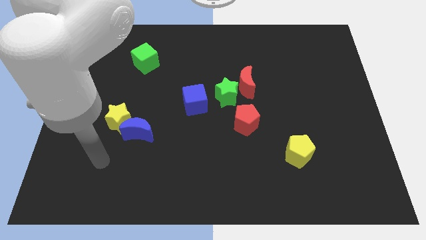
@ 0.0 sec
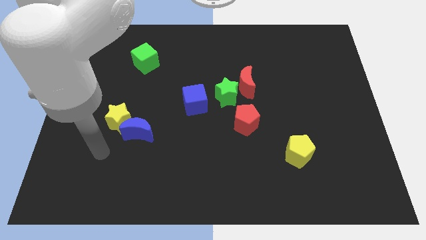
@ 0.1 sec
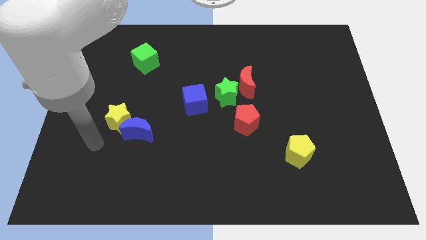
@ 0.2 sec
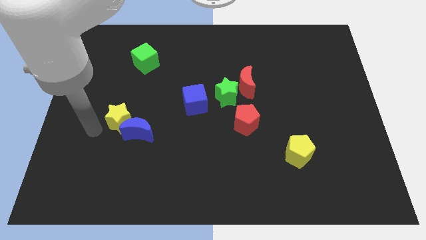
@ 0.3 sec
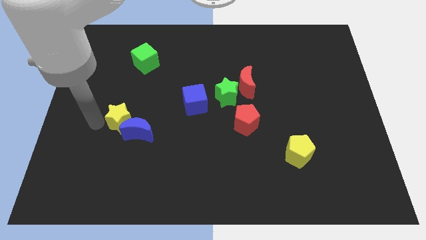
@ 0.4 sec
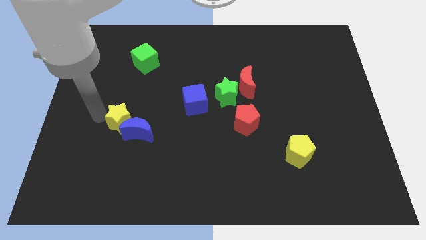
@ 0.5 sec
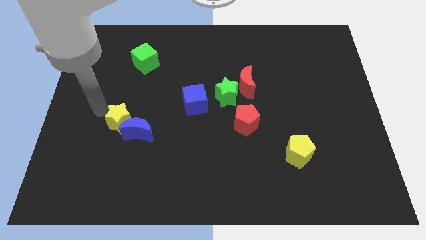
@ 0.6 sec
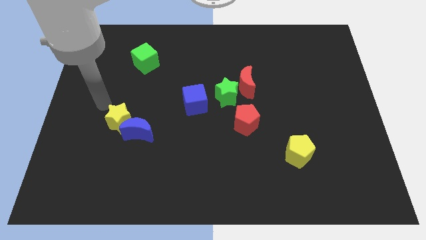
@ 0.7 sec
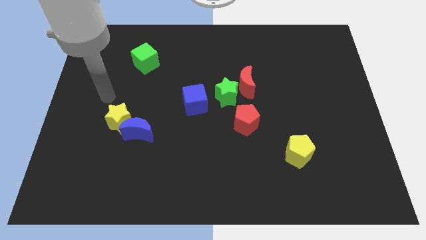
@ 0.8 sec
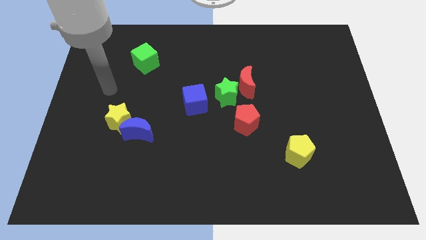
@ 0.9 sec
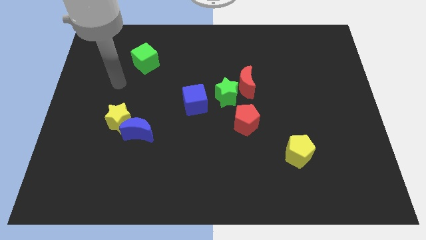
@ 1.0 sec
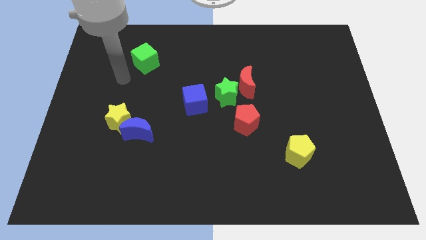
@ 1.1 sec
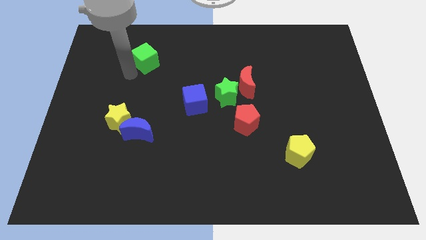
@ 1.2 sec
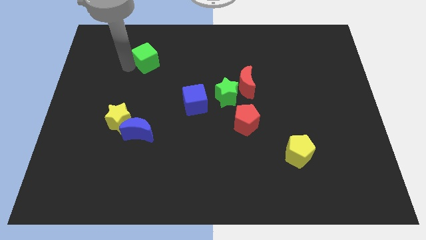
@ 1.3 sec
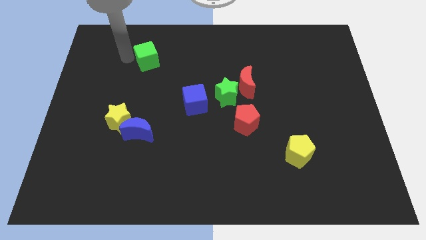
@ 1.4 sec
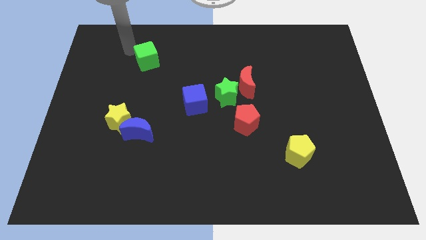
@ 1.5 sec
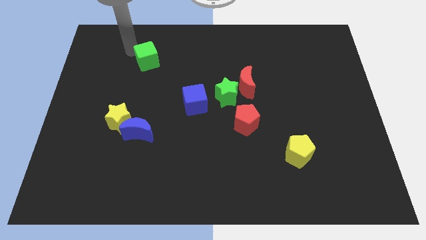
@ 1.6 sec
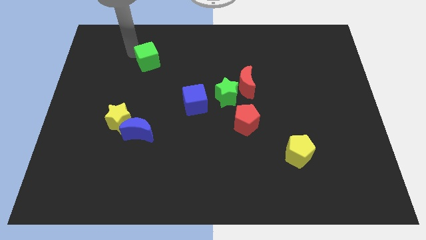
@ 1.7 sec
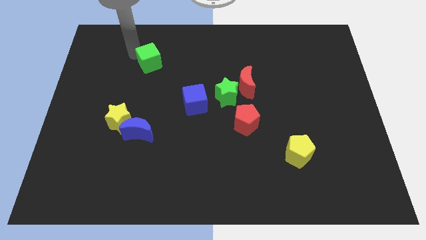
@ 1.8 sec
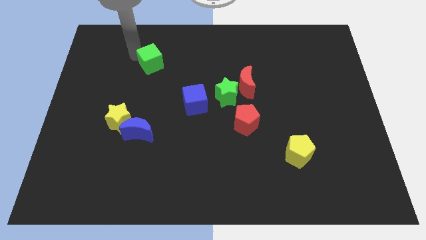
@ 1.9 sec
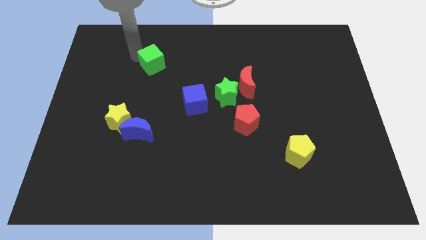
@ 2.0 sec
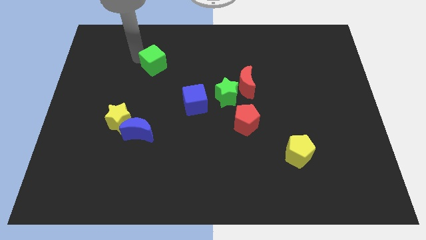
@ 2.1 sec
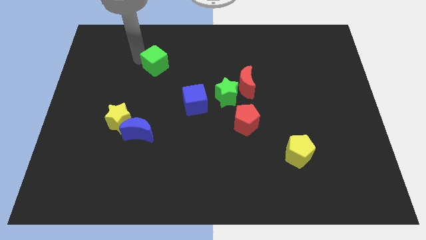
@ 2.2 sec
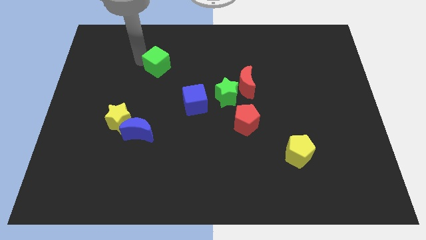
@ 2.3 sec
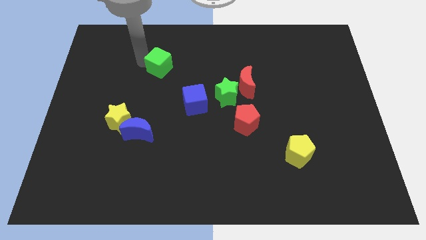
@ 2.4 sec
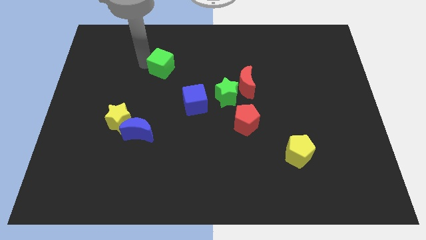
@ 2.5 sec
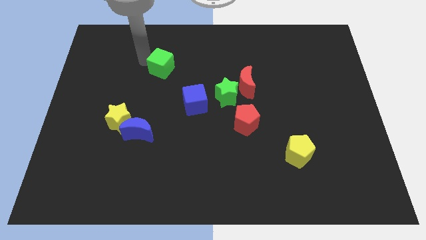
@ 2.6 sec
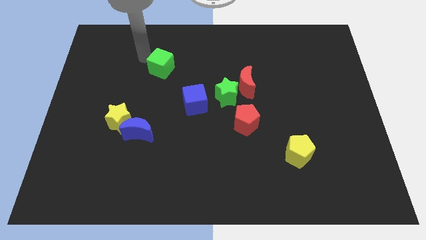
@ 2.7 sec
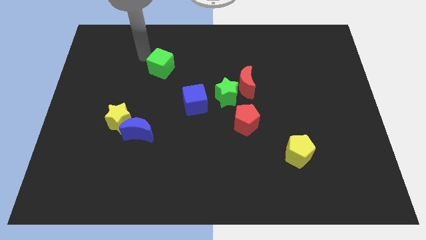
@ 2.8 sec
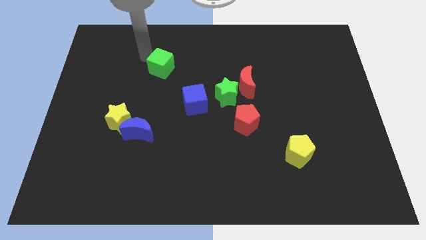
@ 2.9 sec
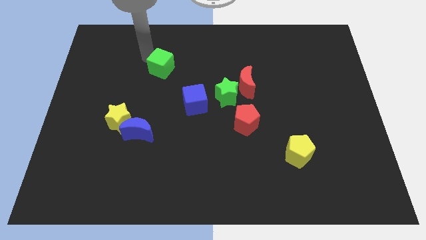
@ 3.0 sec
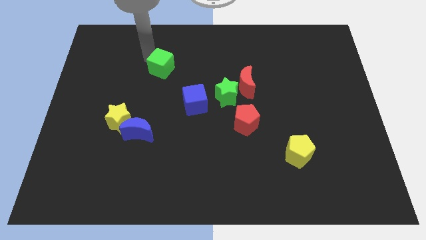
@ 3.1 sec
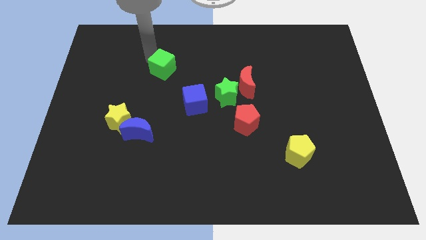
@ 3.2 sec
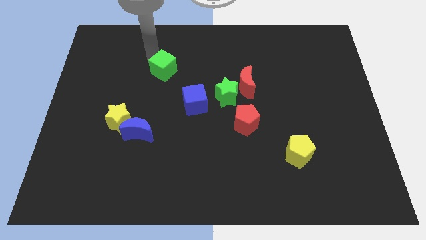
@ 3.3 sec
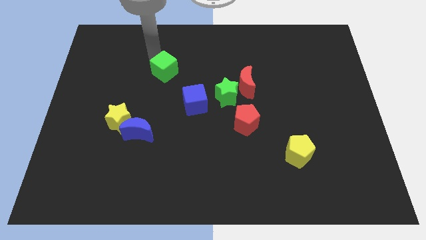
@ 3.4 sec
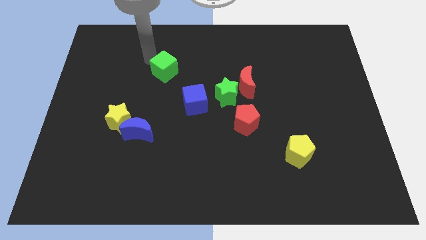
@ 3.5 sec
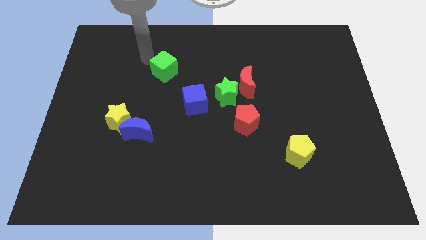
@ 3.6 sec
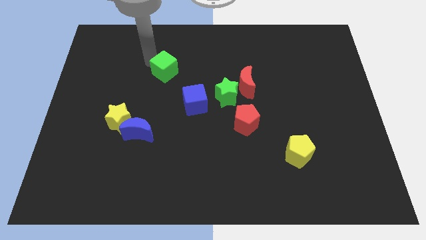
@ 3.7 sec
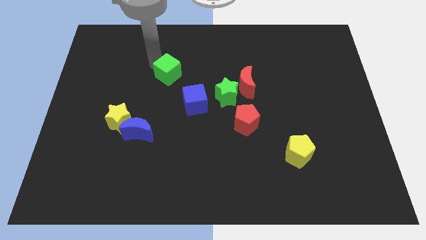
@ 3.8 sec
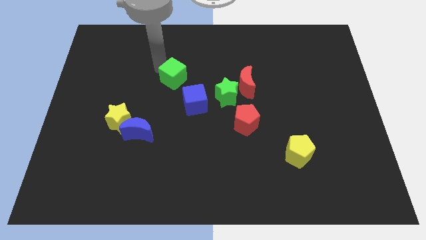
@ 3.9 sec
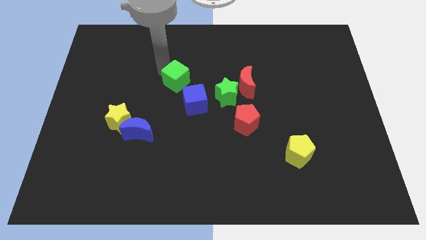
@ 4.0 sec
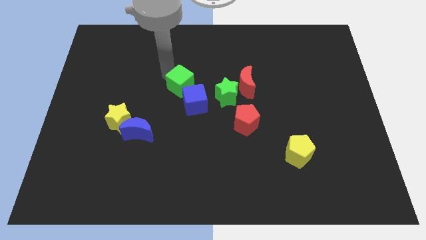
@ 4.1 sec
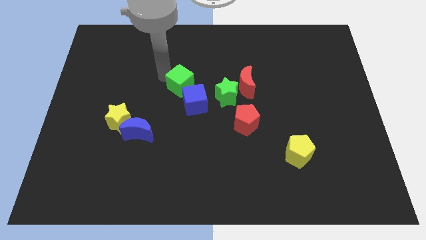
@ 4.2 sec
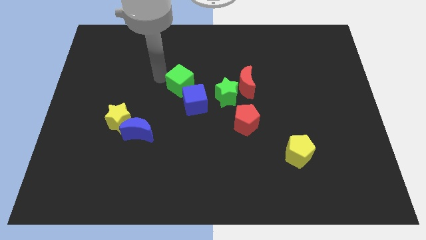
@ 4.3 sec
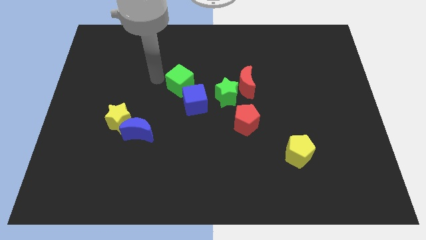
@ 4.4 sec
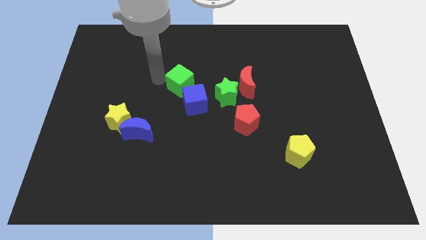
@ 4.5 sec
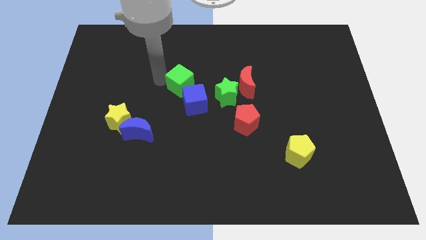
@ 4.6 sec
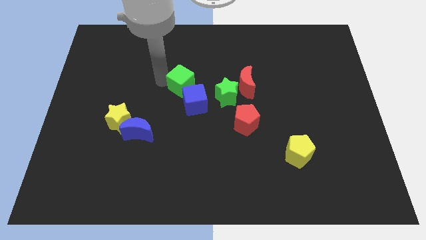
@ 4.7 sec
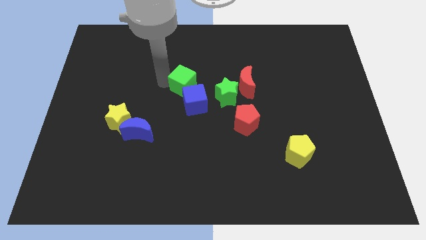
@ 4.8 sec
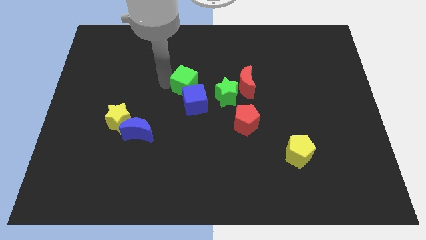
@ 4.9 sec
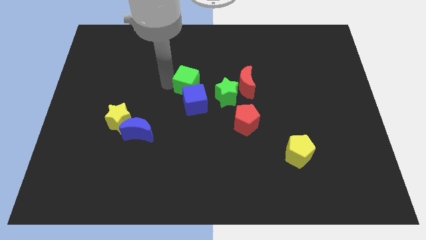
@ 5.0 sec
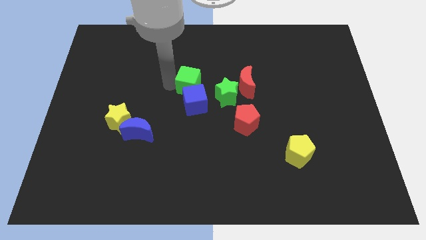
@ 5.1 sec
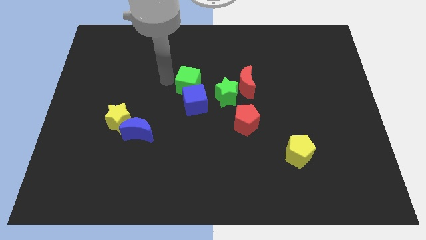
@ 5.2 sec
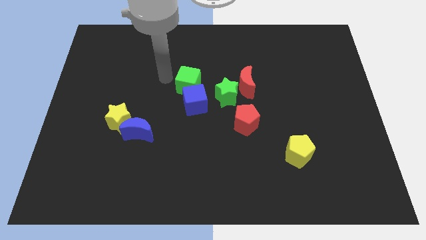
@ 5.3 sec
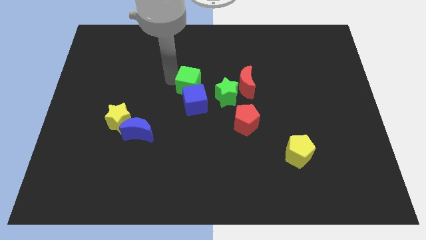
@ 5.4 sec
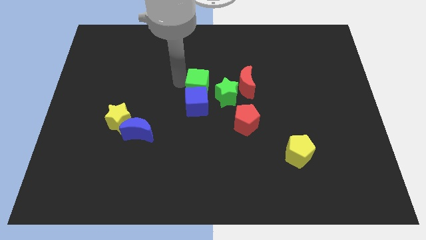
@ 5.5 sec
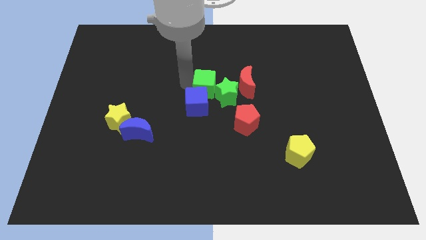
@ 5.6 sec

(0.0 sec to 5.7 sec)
move the green cube close to the green star

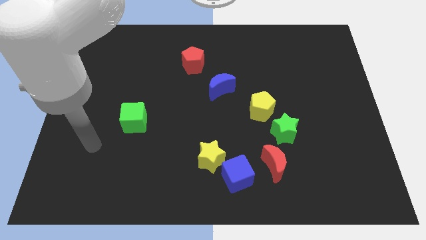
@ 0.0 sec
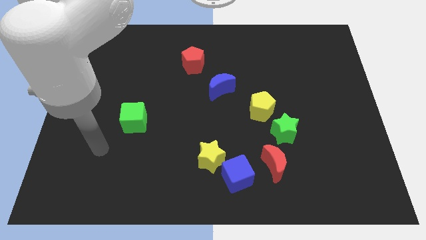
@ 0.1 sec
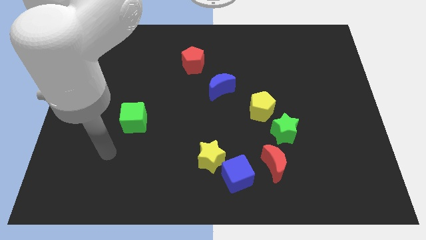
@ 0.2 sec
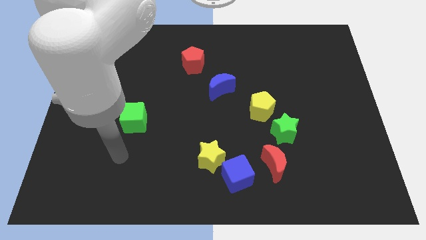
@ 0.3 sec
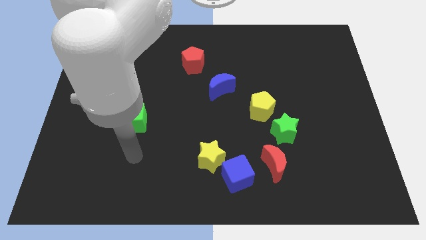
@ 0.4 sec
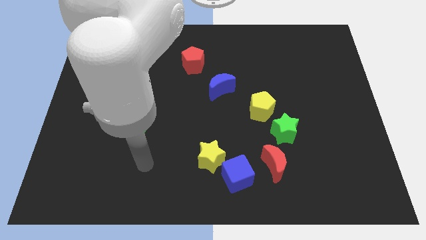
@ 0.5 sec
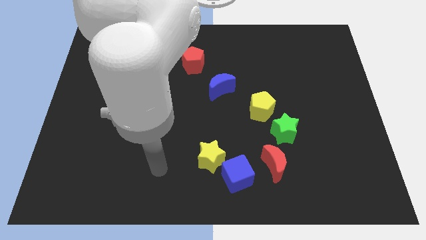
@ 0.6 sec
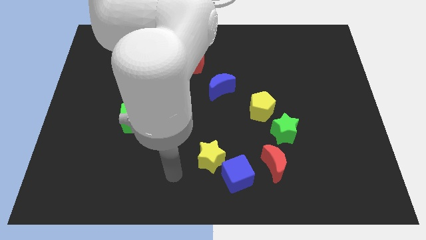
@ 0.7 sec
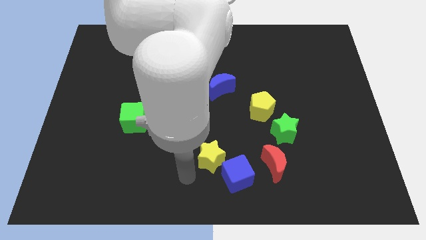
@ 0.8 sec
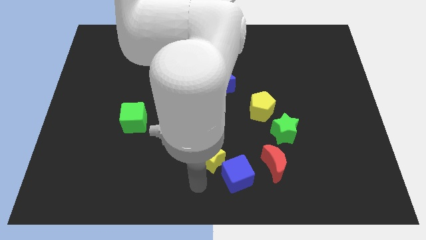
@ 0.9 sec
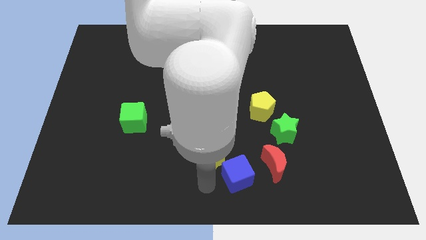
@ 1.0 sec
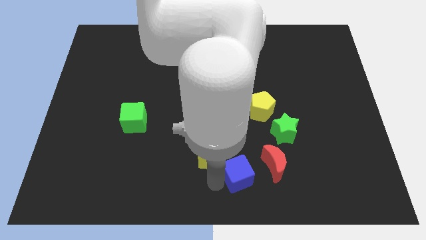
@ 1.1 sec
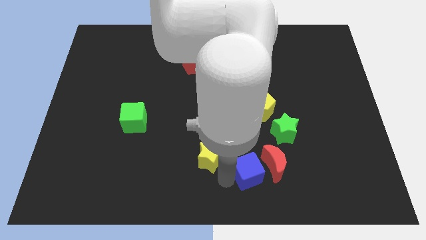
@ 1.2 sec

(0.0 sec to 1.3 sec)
push the blue cube next to the red moon
